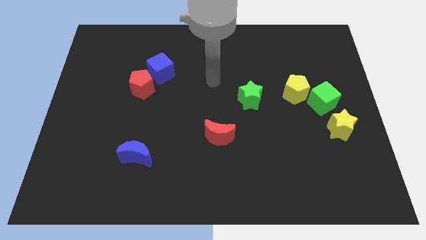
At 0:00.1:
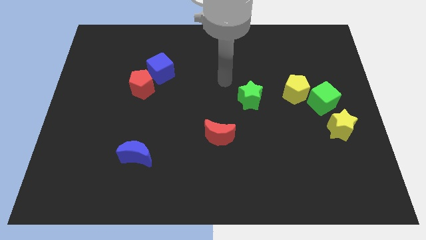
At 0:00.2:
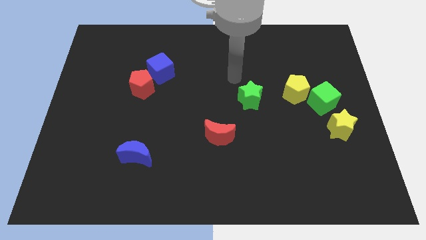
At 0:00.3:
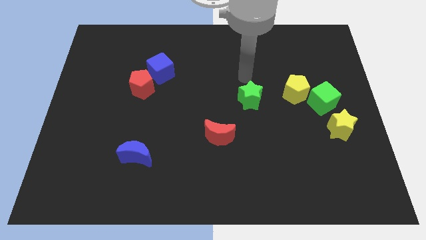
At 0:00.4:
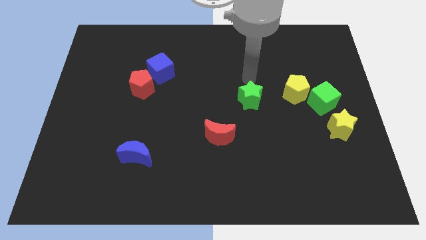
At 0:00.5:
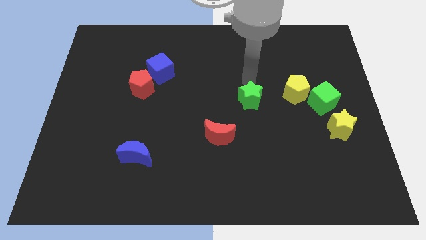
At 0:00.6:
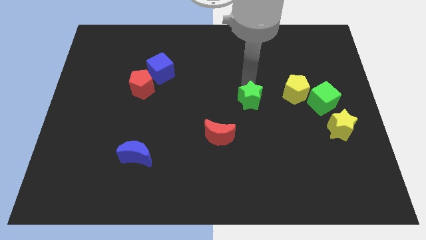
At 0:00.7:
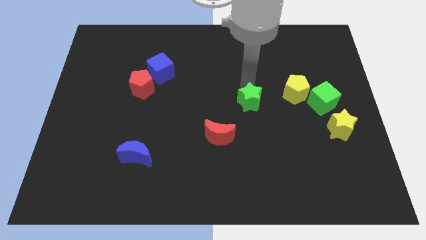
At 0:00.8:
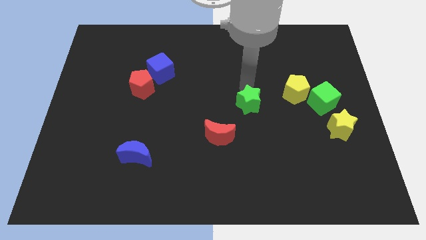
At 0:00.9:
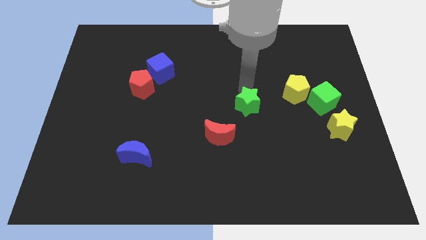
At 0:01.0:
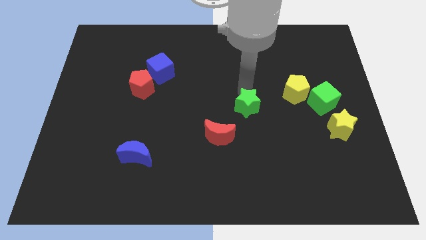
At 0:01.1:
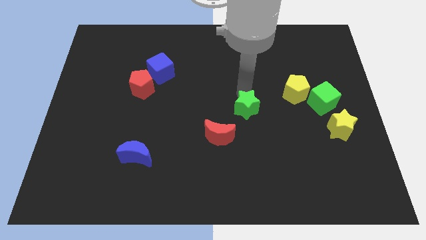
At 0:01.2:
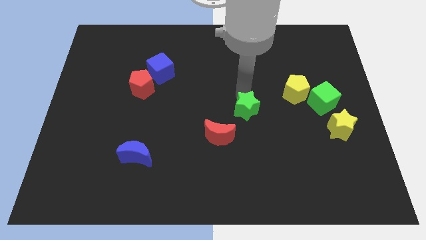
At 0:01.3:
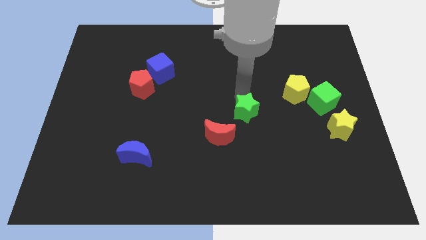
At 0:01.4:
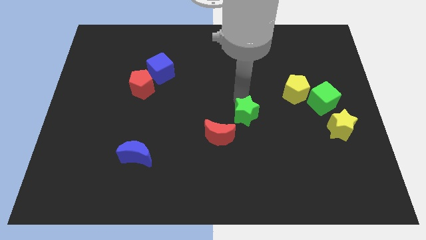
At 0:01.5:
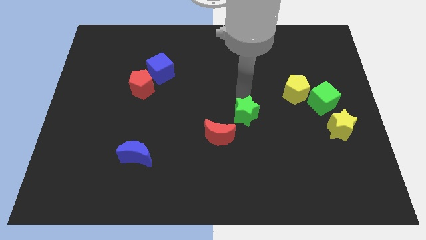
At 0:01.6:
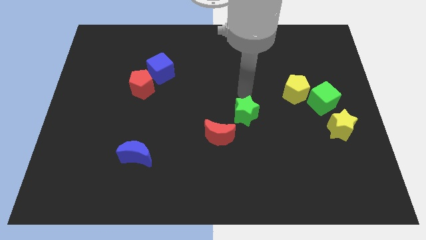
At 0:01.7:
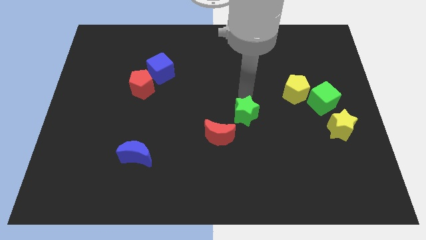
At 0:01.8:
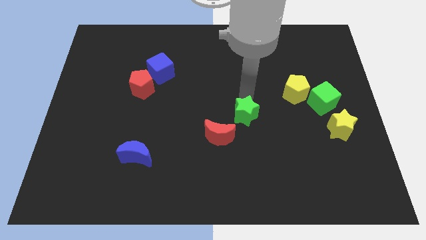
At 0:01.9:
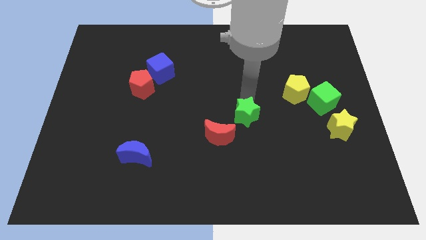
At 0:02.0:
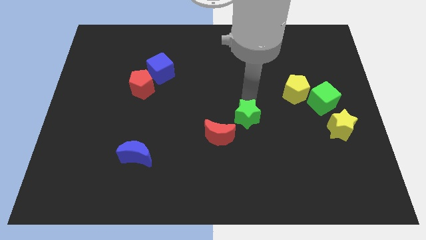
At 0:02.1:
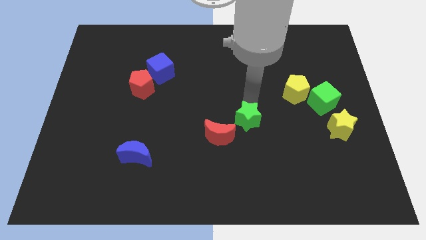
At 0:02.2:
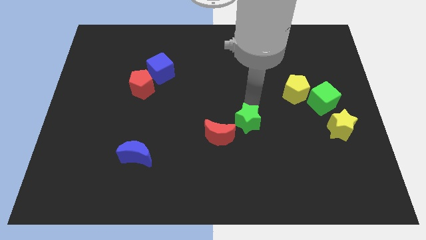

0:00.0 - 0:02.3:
move the green star somewhat downwards

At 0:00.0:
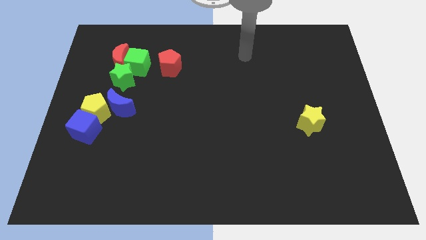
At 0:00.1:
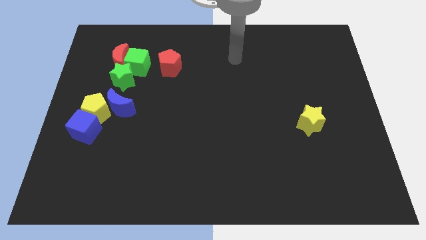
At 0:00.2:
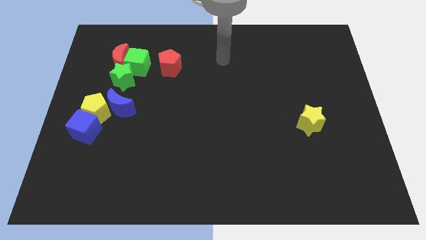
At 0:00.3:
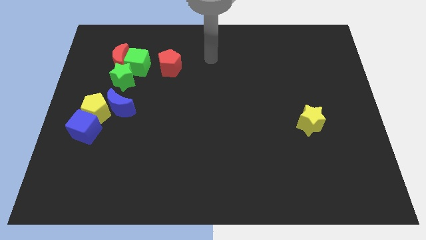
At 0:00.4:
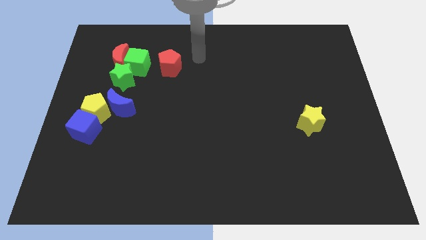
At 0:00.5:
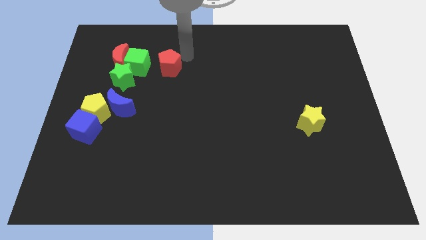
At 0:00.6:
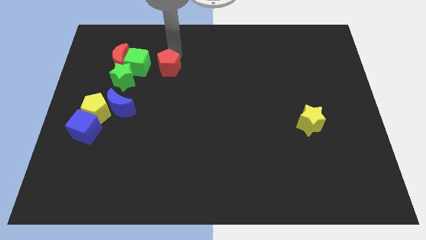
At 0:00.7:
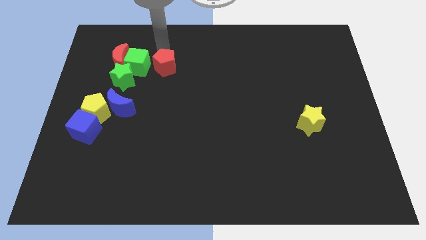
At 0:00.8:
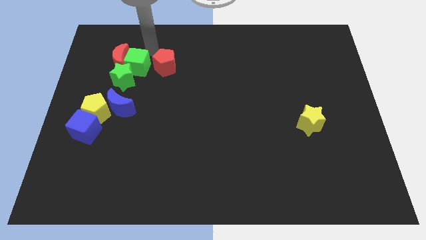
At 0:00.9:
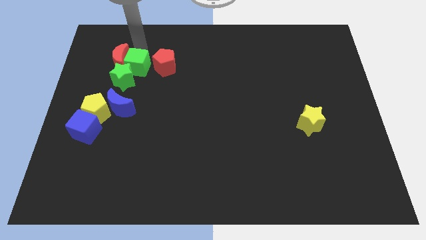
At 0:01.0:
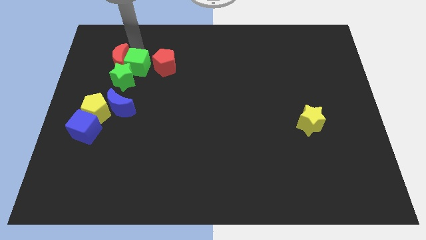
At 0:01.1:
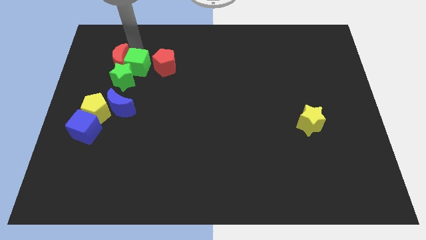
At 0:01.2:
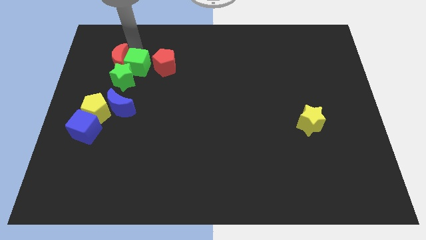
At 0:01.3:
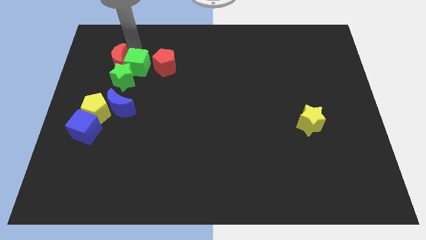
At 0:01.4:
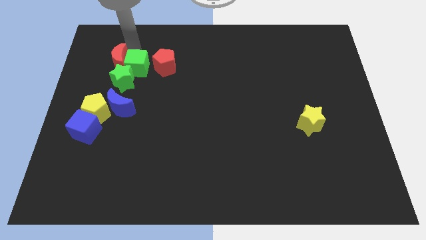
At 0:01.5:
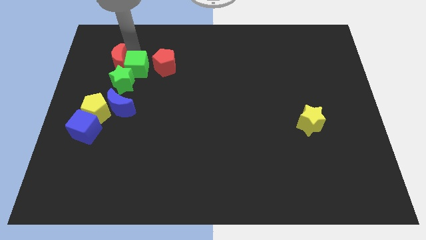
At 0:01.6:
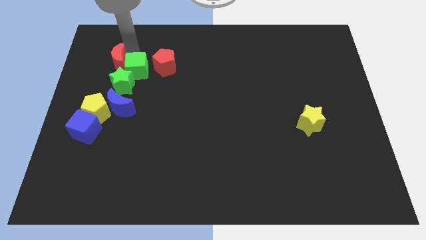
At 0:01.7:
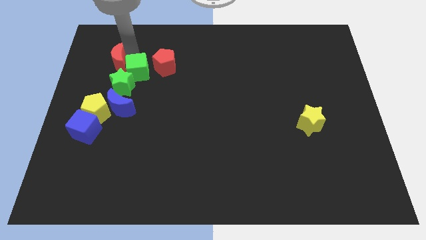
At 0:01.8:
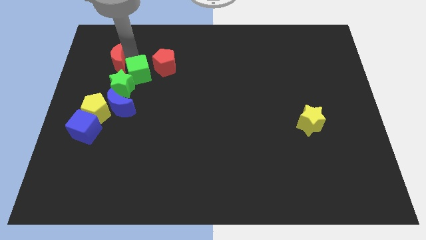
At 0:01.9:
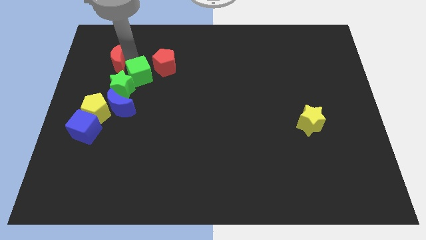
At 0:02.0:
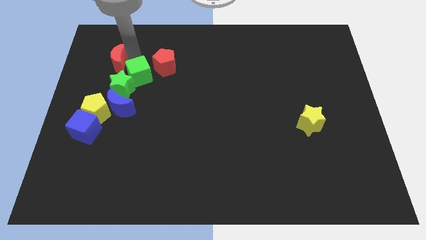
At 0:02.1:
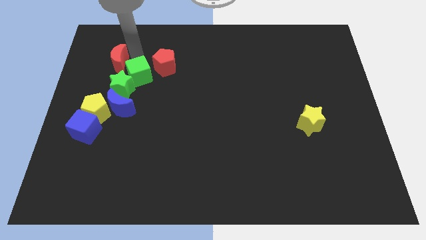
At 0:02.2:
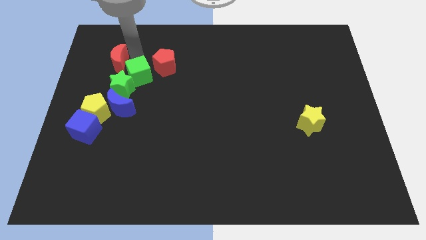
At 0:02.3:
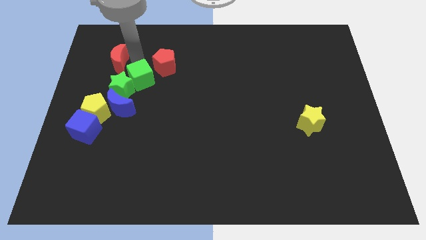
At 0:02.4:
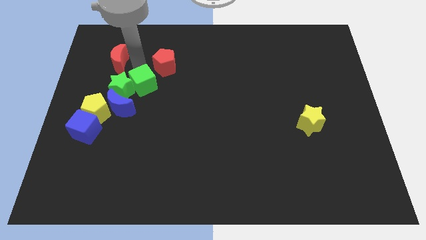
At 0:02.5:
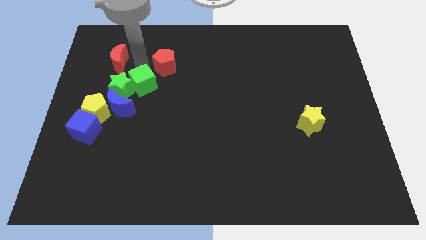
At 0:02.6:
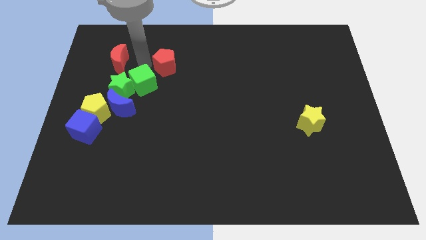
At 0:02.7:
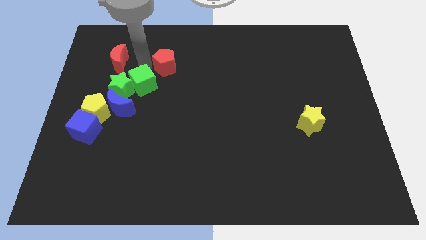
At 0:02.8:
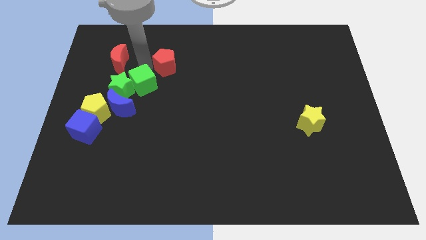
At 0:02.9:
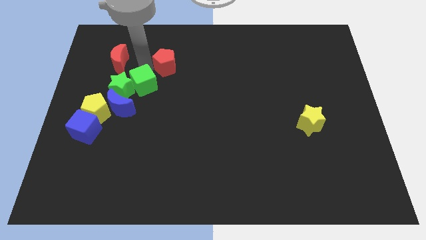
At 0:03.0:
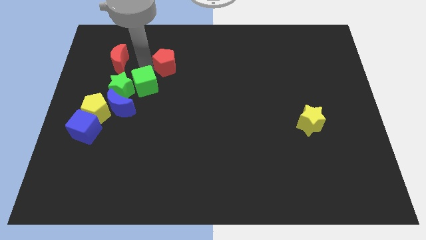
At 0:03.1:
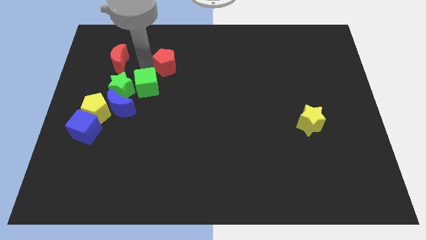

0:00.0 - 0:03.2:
slightly move the green cube downwards

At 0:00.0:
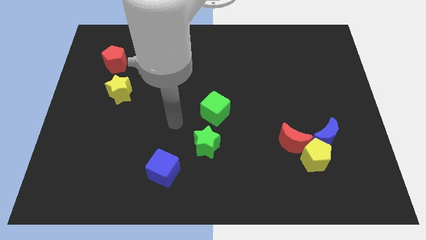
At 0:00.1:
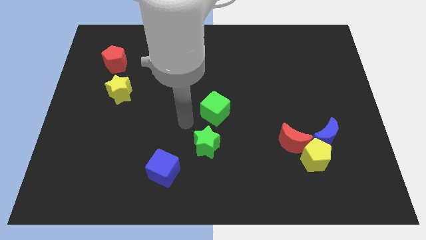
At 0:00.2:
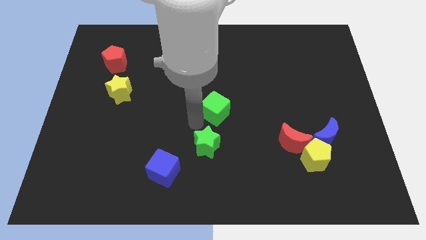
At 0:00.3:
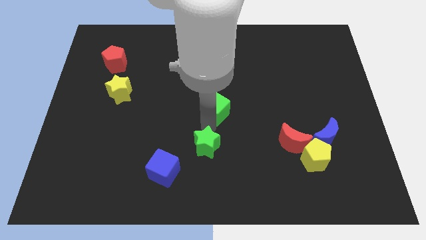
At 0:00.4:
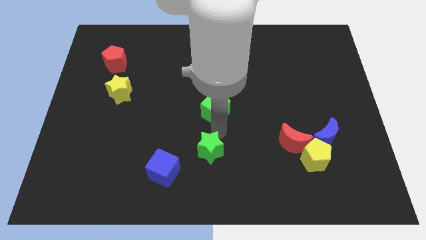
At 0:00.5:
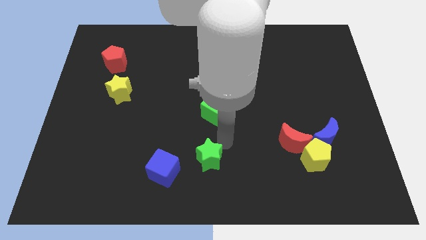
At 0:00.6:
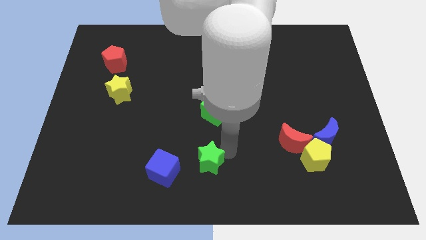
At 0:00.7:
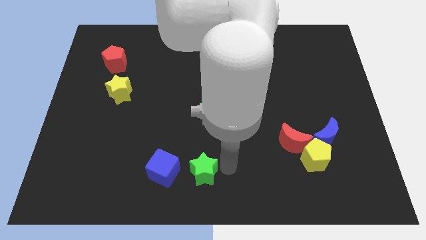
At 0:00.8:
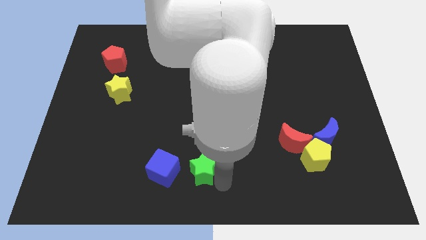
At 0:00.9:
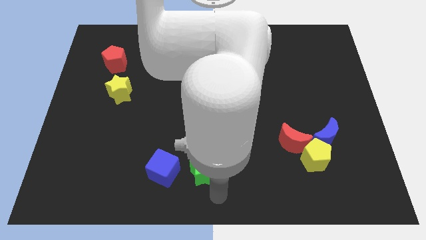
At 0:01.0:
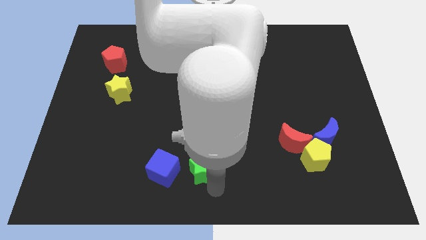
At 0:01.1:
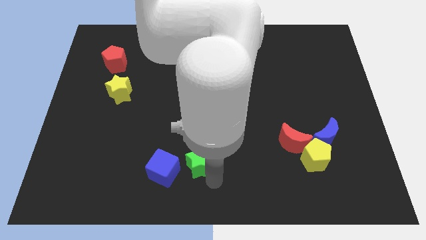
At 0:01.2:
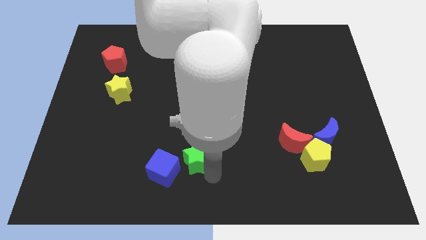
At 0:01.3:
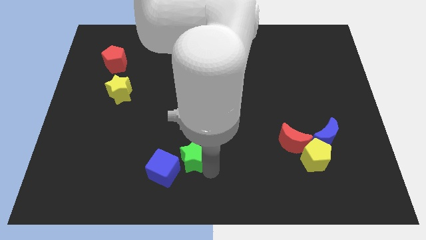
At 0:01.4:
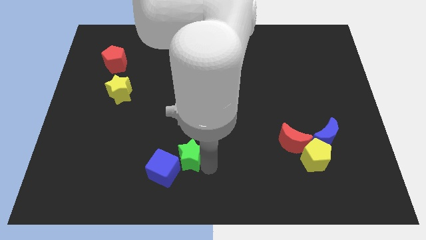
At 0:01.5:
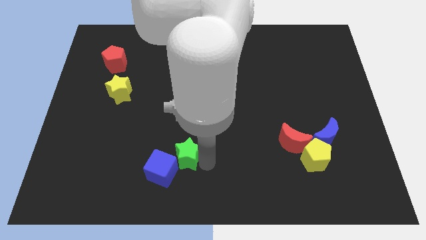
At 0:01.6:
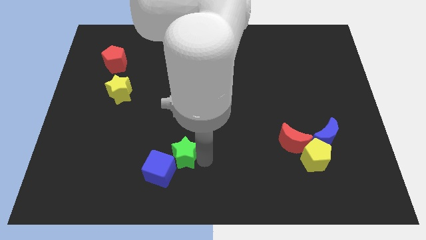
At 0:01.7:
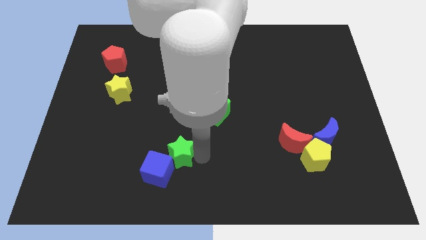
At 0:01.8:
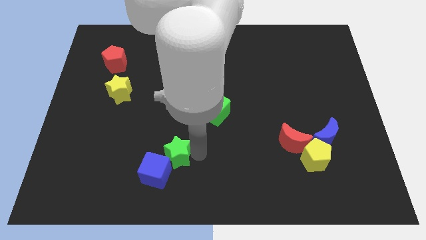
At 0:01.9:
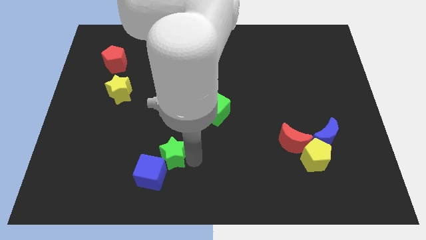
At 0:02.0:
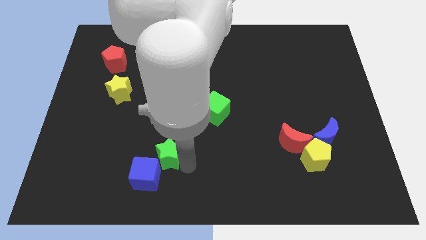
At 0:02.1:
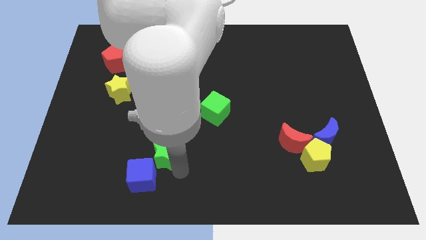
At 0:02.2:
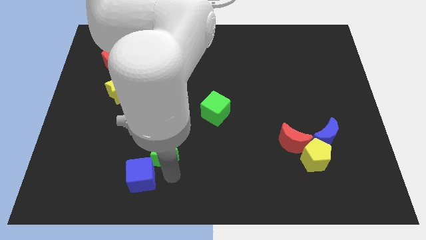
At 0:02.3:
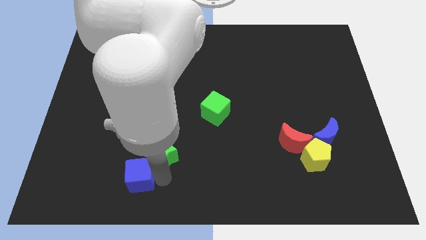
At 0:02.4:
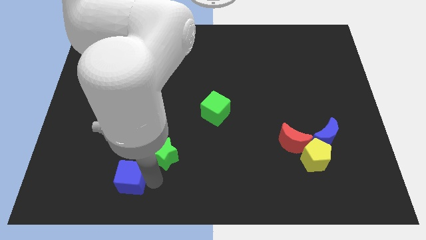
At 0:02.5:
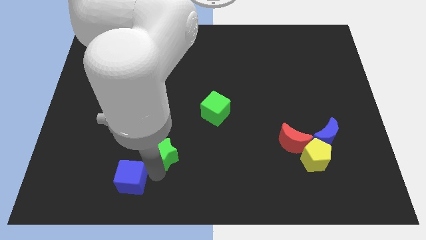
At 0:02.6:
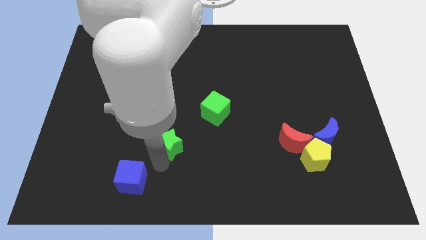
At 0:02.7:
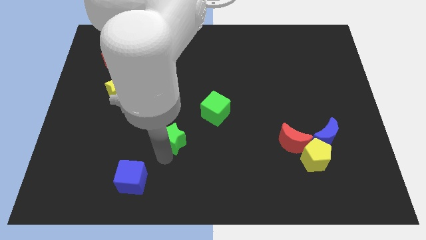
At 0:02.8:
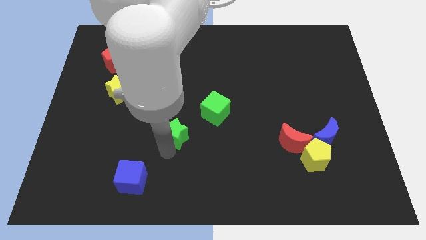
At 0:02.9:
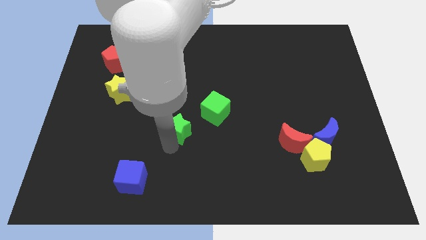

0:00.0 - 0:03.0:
slightly slide the green star upwards and to the left
